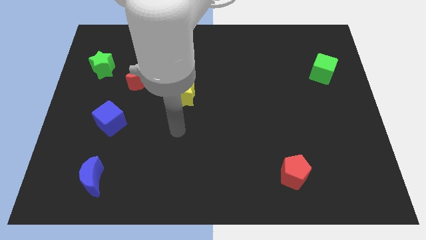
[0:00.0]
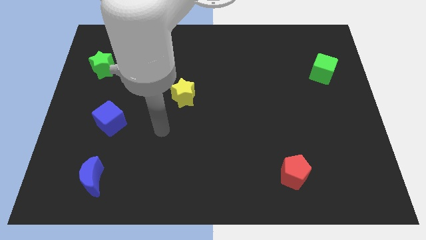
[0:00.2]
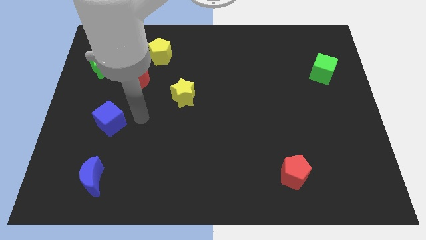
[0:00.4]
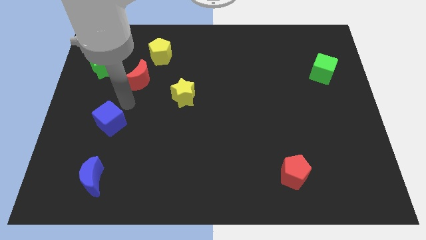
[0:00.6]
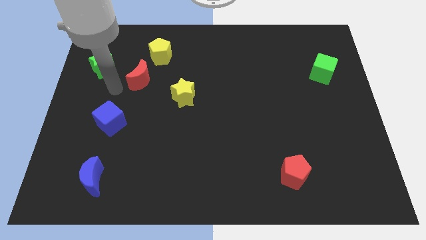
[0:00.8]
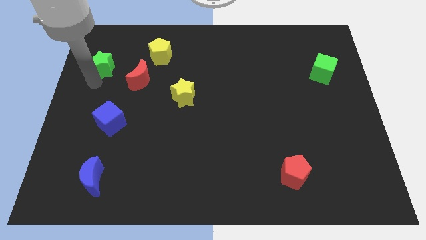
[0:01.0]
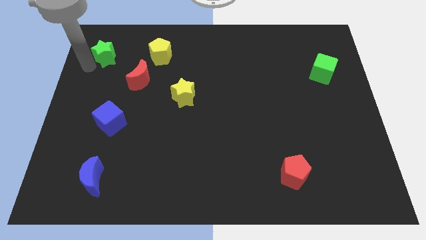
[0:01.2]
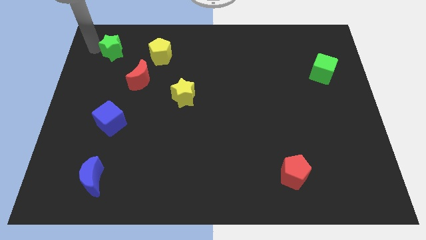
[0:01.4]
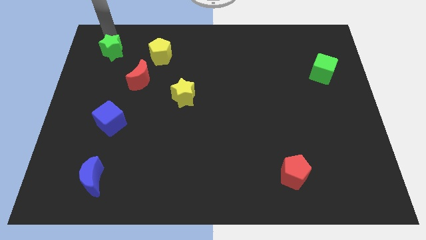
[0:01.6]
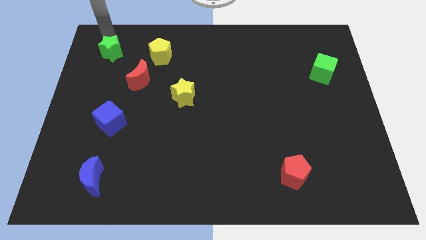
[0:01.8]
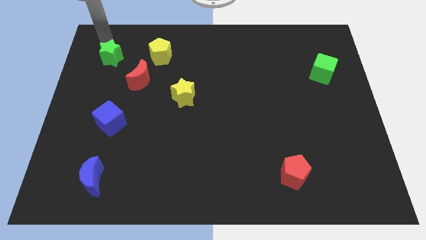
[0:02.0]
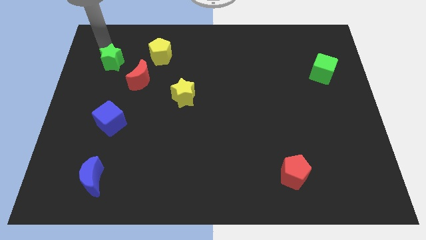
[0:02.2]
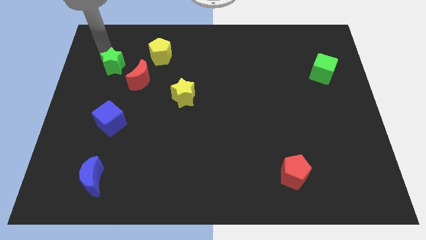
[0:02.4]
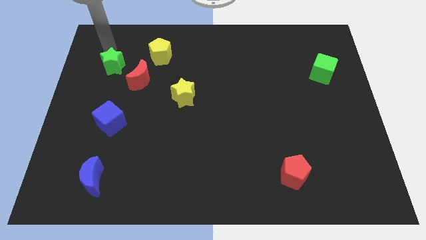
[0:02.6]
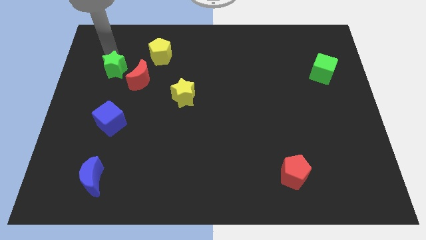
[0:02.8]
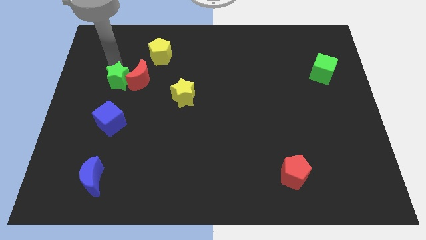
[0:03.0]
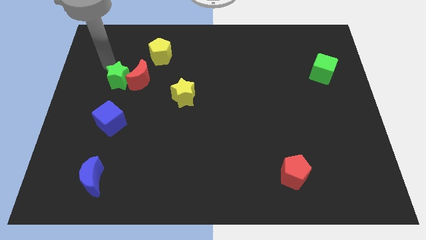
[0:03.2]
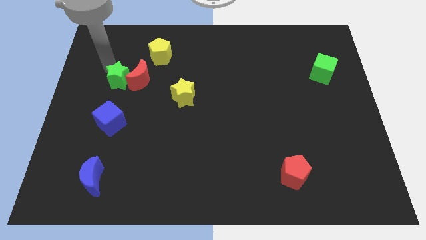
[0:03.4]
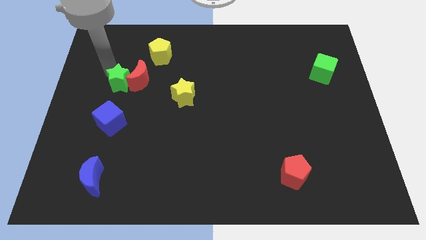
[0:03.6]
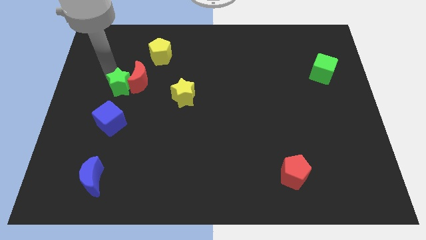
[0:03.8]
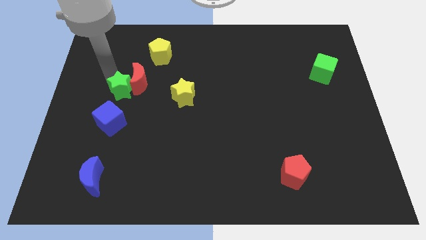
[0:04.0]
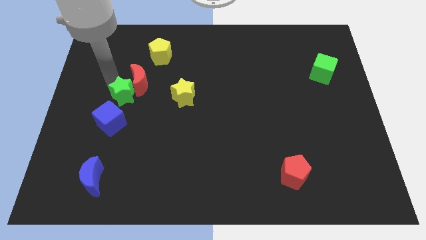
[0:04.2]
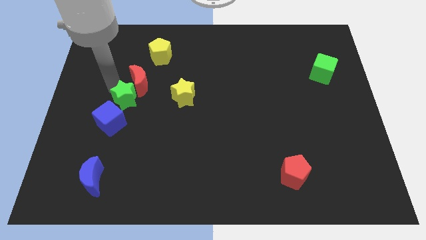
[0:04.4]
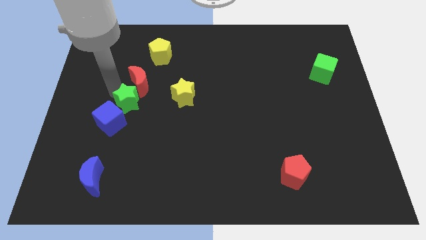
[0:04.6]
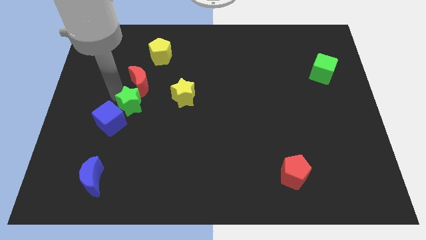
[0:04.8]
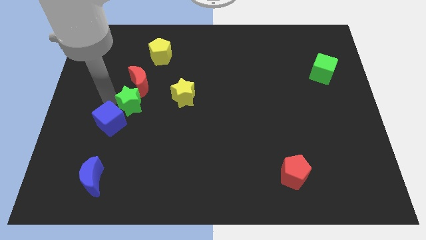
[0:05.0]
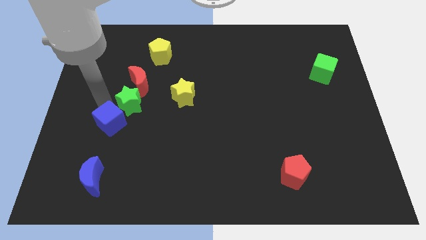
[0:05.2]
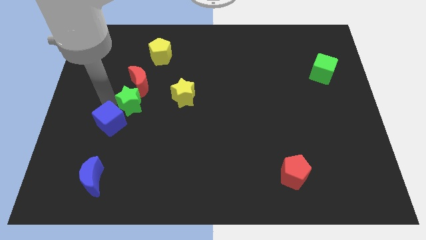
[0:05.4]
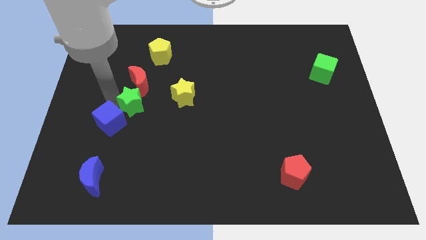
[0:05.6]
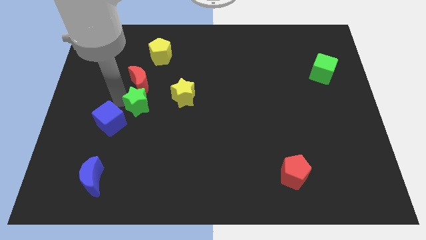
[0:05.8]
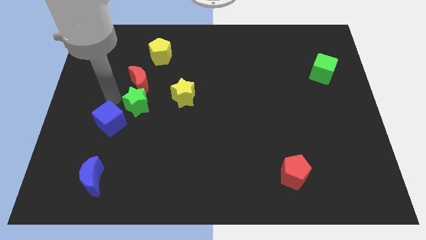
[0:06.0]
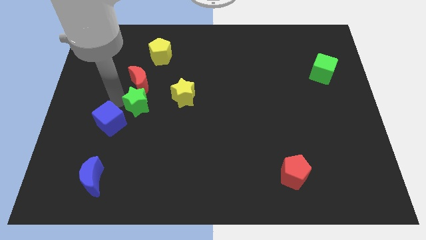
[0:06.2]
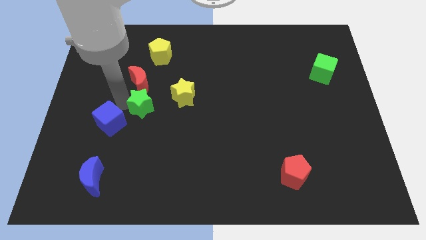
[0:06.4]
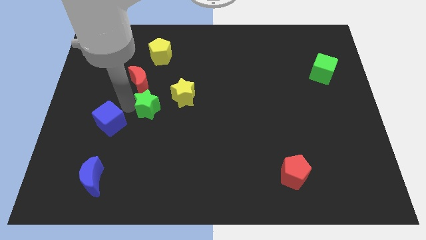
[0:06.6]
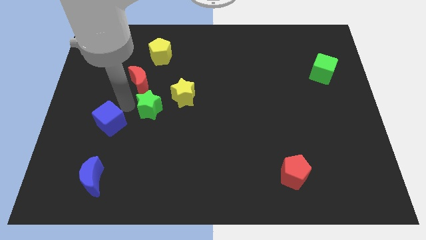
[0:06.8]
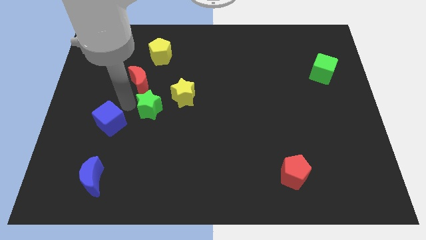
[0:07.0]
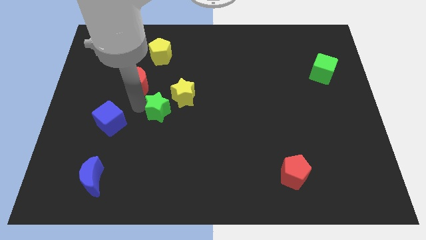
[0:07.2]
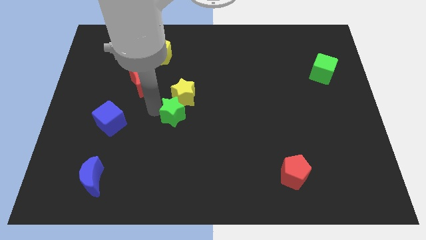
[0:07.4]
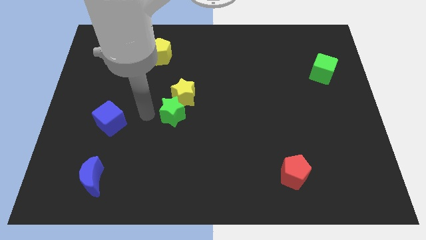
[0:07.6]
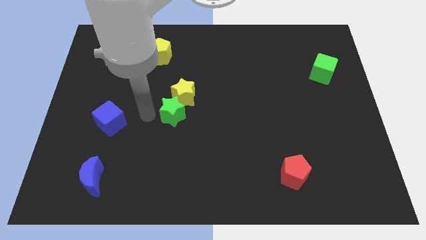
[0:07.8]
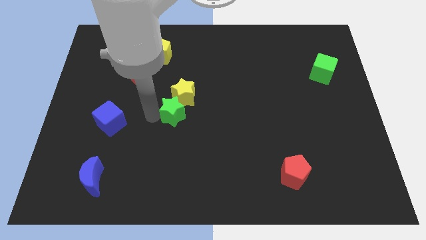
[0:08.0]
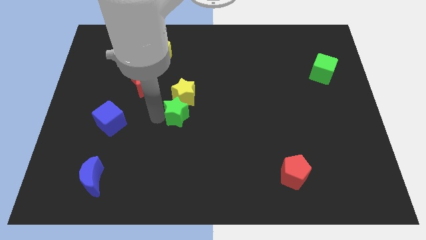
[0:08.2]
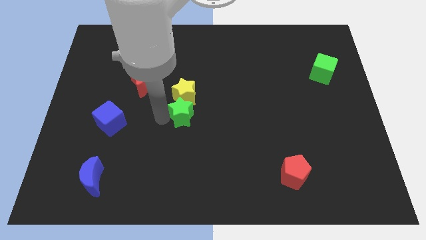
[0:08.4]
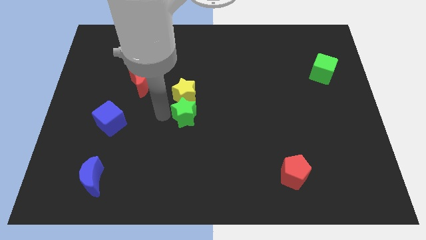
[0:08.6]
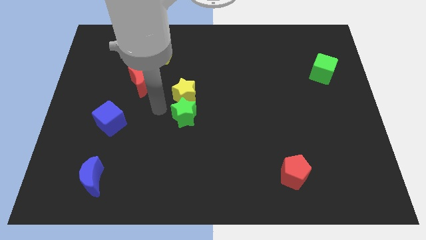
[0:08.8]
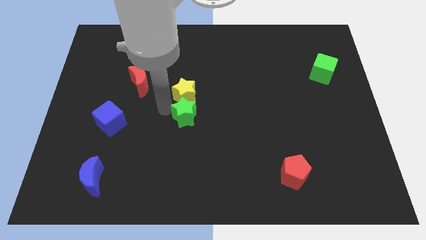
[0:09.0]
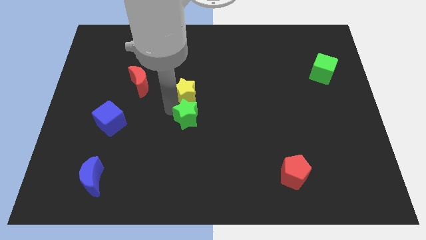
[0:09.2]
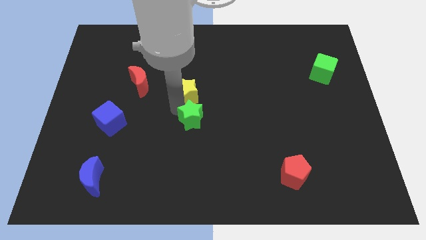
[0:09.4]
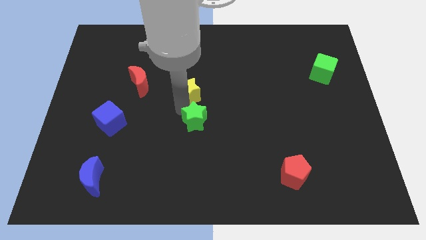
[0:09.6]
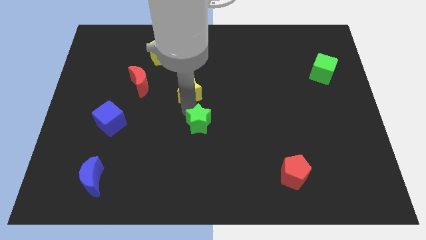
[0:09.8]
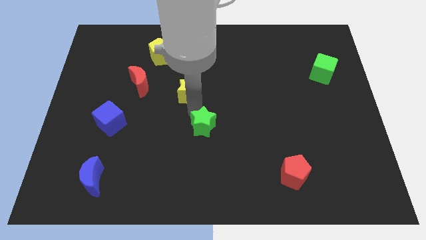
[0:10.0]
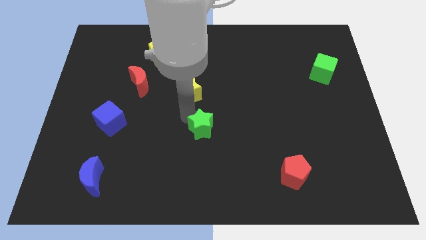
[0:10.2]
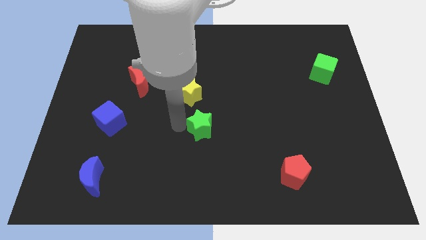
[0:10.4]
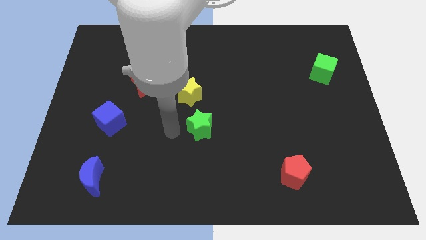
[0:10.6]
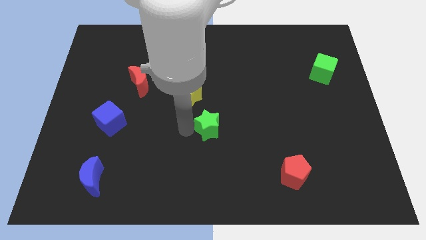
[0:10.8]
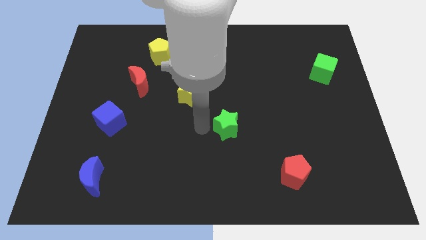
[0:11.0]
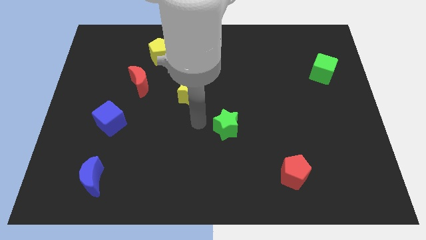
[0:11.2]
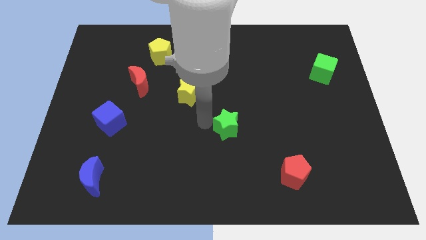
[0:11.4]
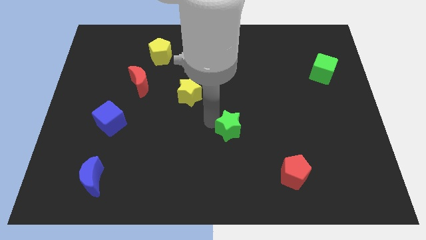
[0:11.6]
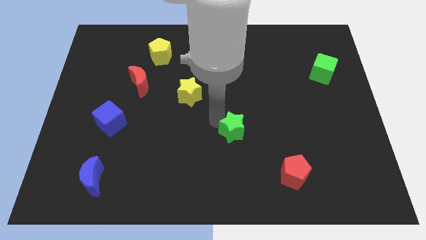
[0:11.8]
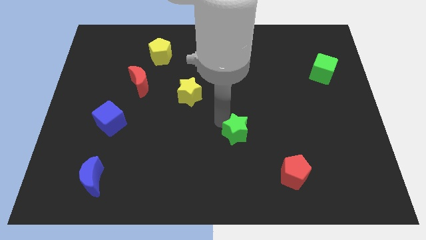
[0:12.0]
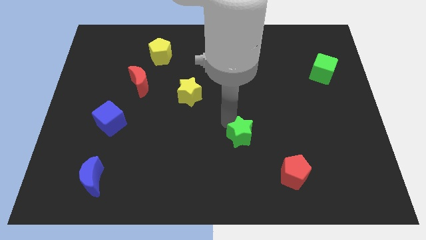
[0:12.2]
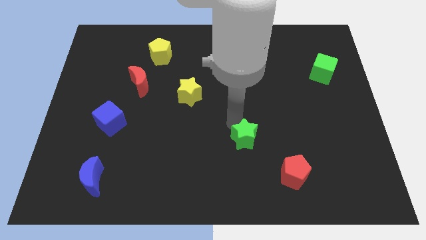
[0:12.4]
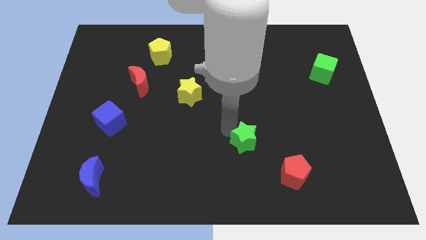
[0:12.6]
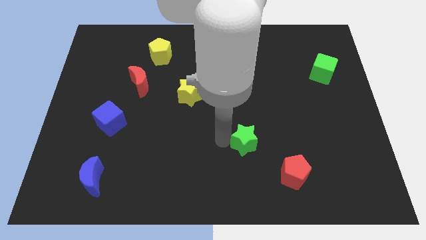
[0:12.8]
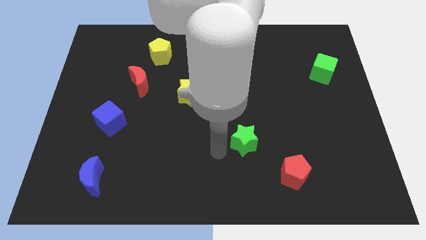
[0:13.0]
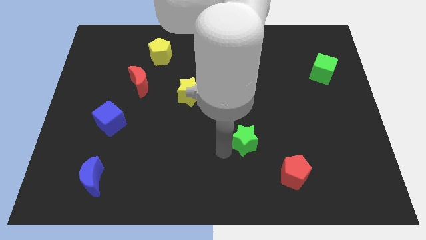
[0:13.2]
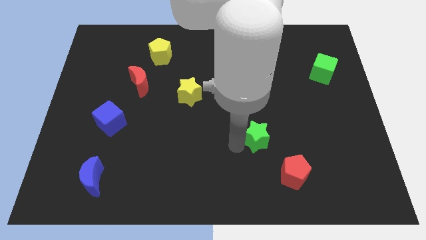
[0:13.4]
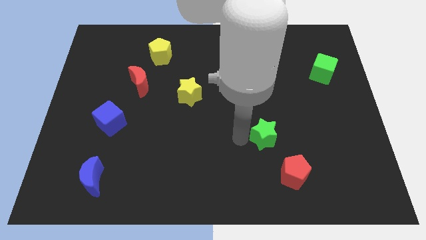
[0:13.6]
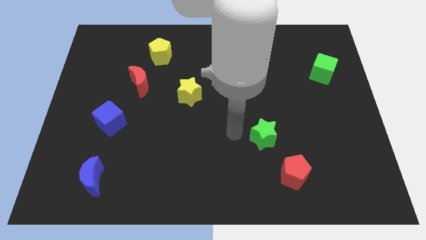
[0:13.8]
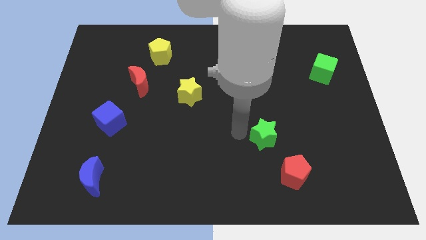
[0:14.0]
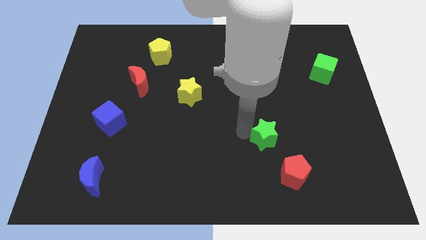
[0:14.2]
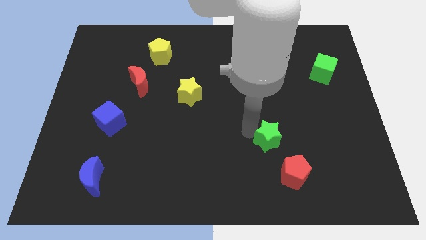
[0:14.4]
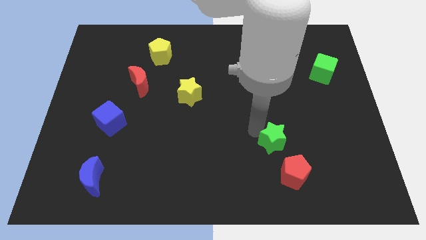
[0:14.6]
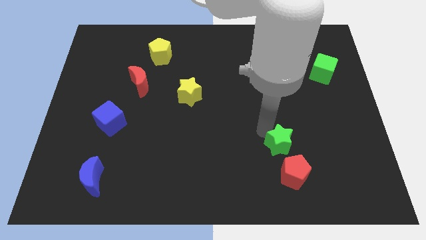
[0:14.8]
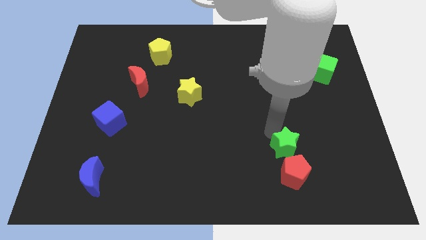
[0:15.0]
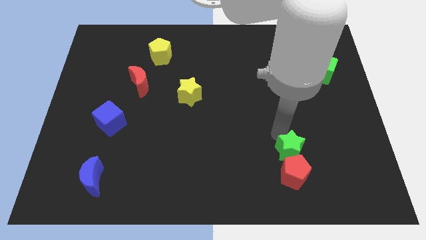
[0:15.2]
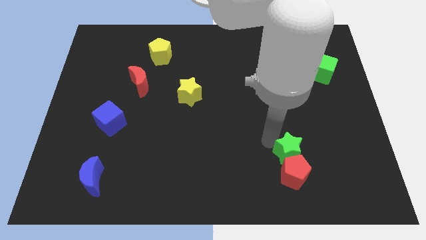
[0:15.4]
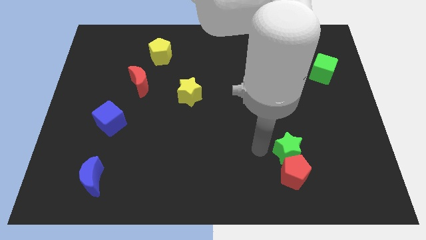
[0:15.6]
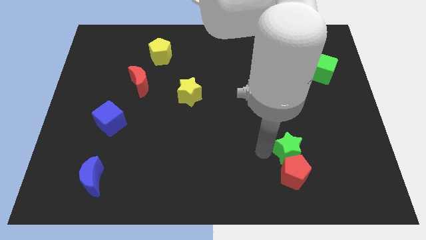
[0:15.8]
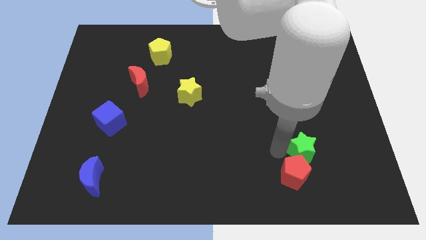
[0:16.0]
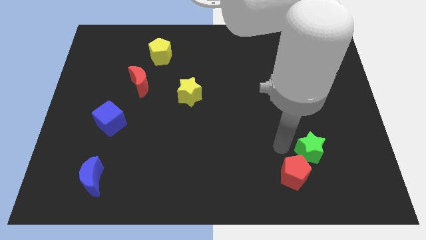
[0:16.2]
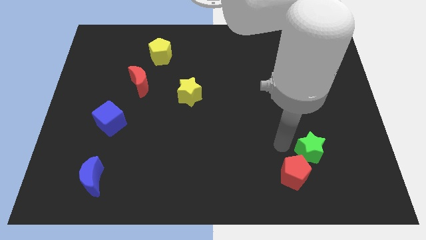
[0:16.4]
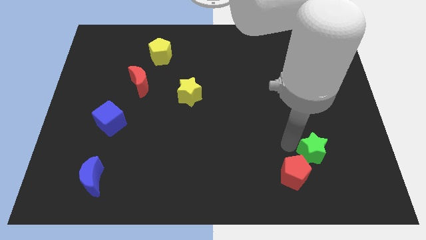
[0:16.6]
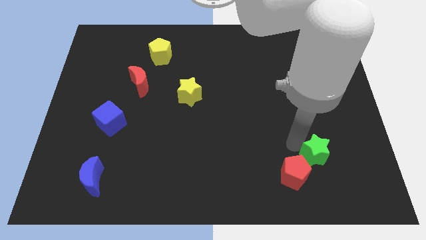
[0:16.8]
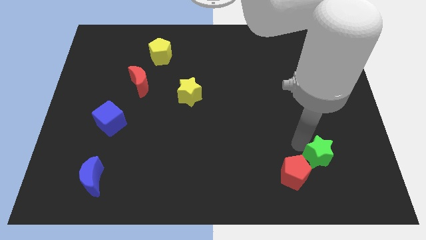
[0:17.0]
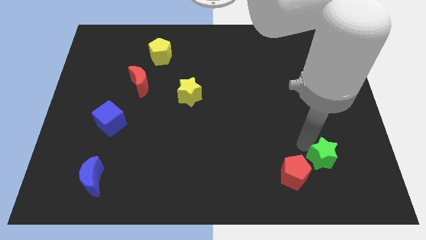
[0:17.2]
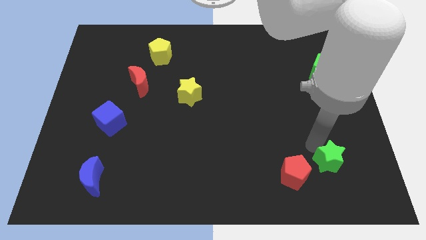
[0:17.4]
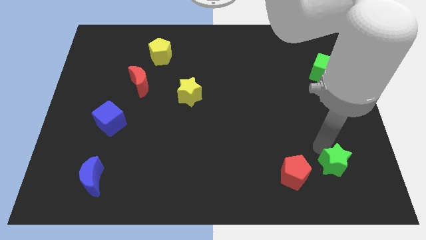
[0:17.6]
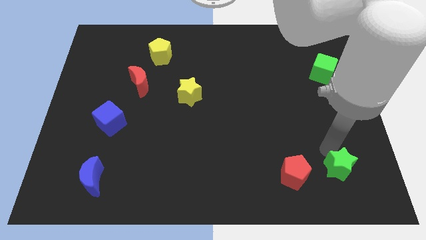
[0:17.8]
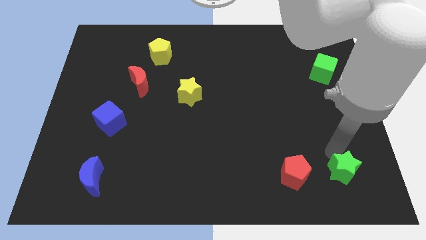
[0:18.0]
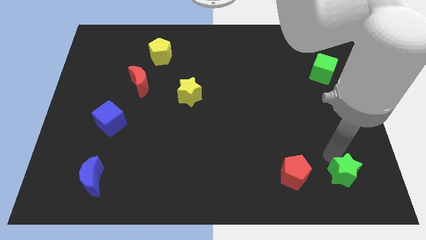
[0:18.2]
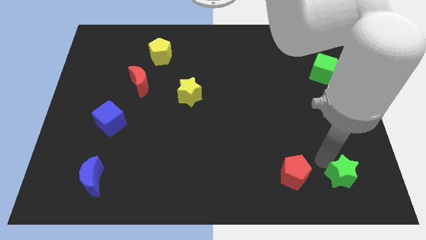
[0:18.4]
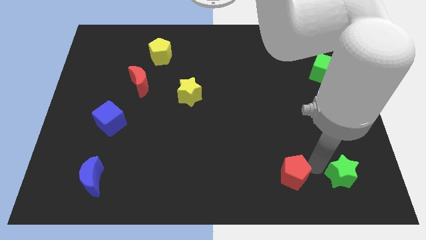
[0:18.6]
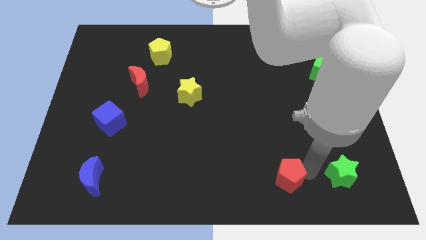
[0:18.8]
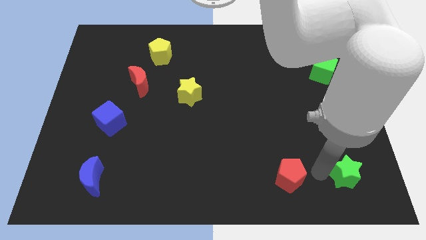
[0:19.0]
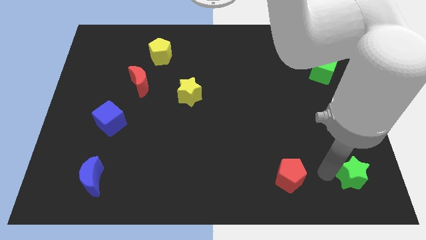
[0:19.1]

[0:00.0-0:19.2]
put the green star to the bottom right corner
